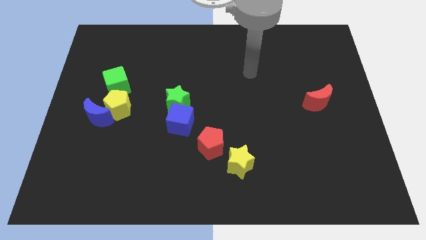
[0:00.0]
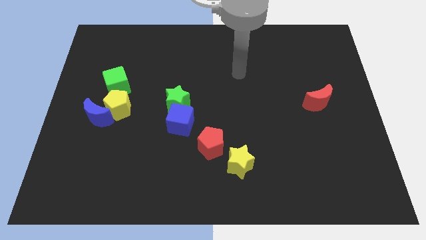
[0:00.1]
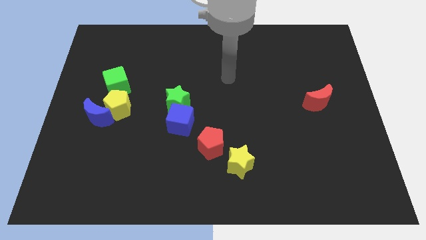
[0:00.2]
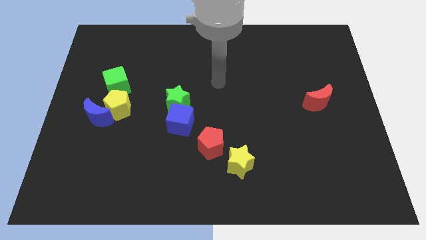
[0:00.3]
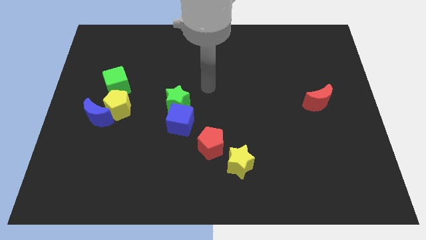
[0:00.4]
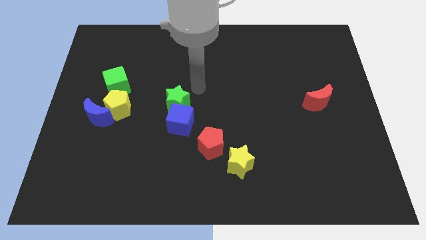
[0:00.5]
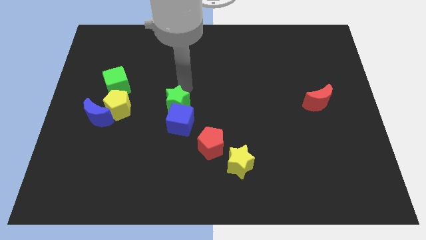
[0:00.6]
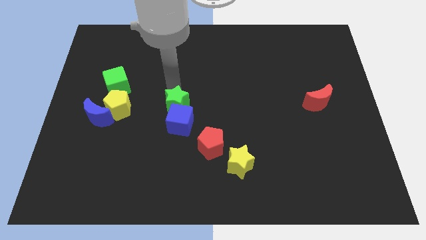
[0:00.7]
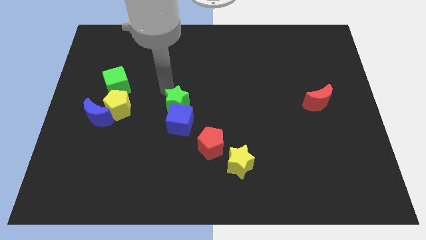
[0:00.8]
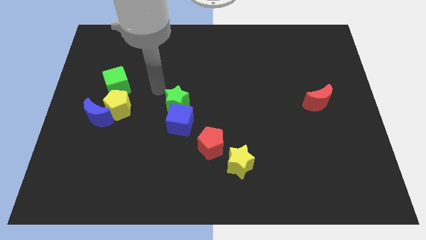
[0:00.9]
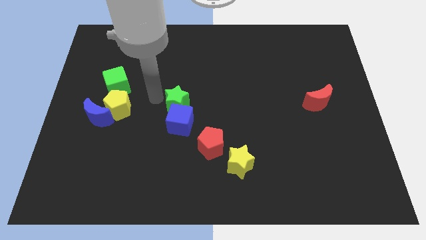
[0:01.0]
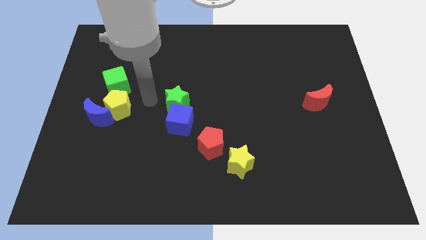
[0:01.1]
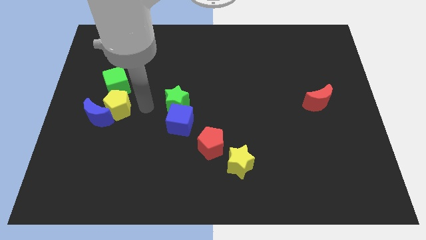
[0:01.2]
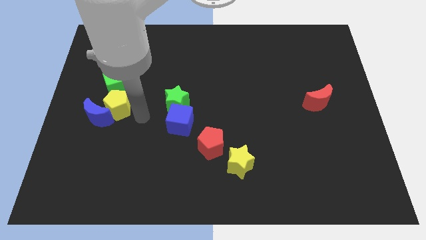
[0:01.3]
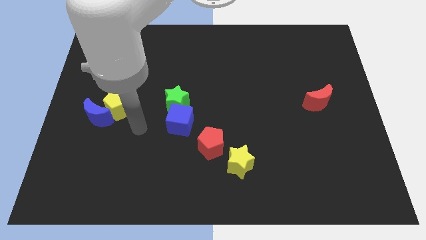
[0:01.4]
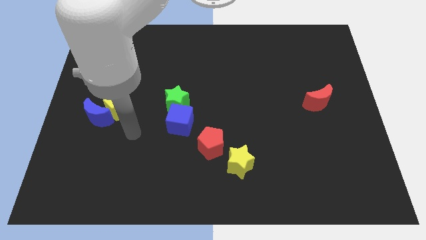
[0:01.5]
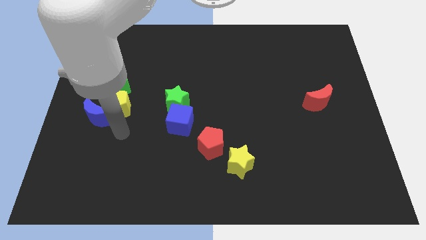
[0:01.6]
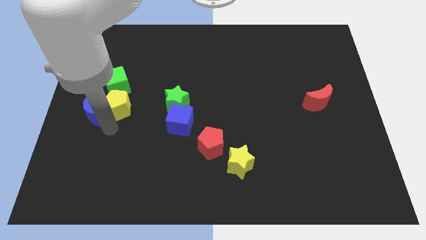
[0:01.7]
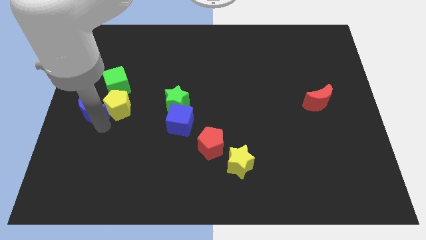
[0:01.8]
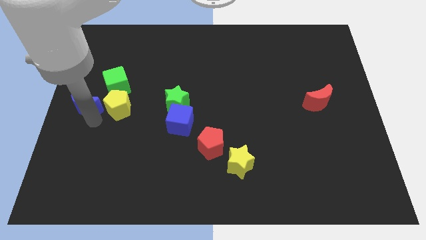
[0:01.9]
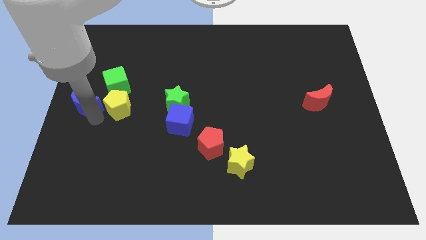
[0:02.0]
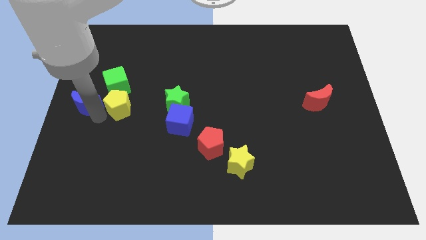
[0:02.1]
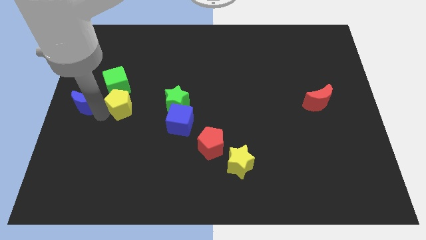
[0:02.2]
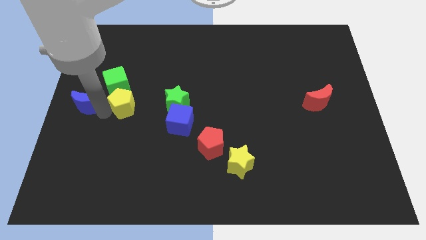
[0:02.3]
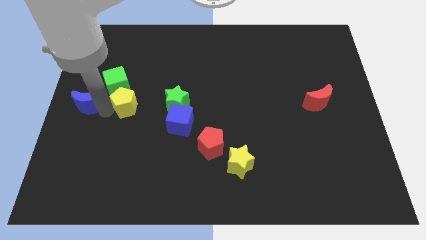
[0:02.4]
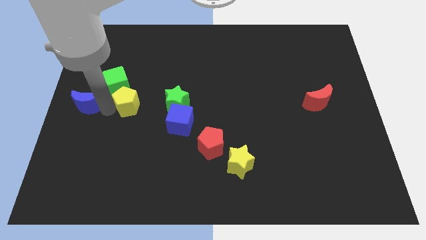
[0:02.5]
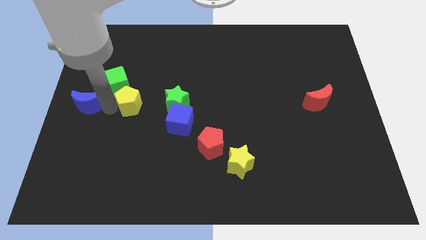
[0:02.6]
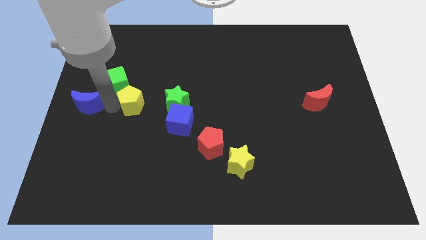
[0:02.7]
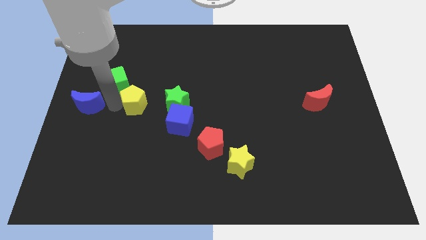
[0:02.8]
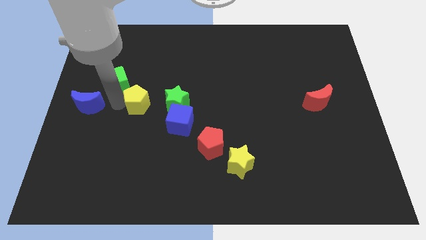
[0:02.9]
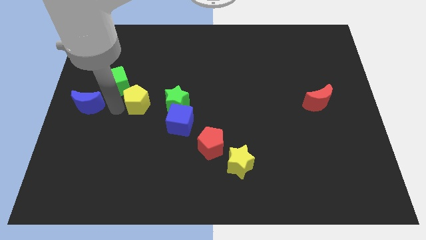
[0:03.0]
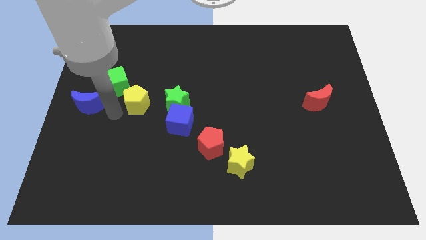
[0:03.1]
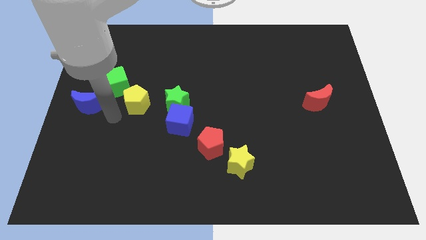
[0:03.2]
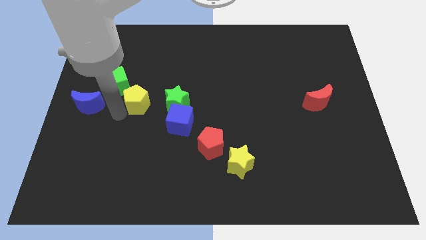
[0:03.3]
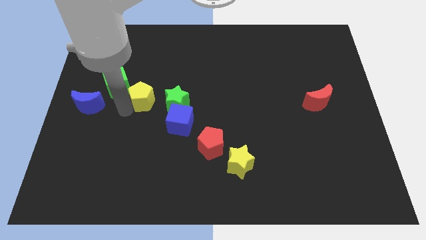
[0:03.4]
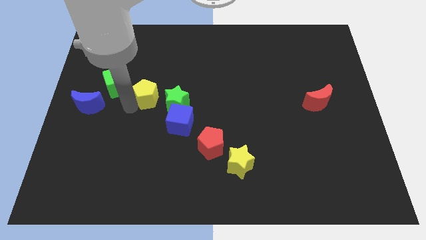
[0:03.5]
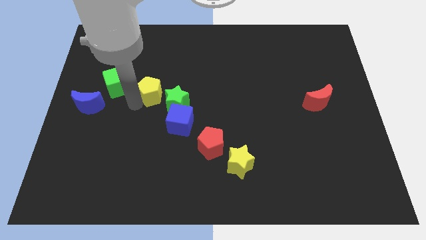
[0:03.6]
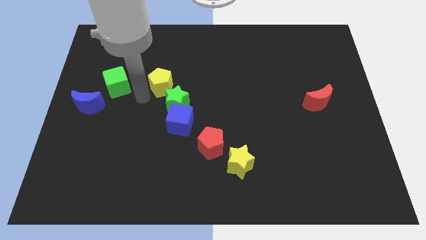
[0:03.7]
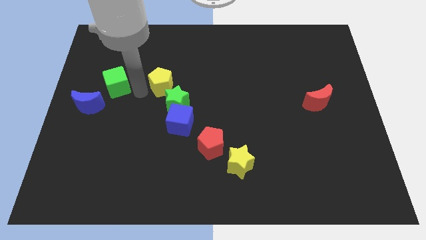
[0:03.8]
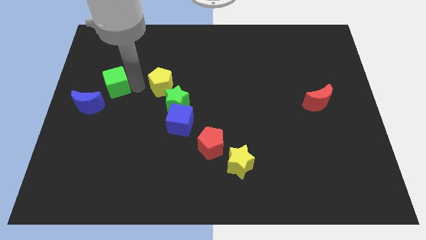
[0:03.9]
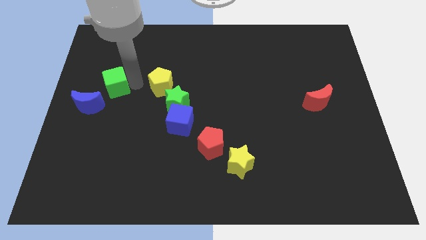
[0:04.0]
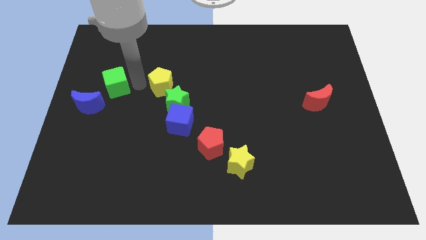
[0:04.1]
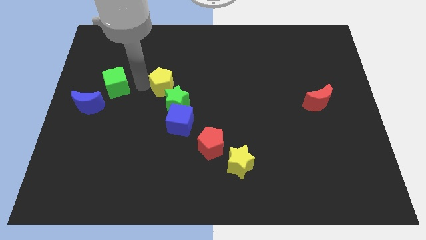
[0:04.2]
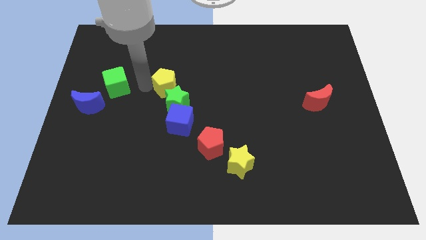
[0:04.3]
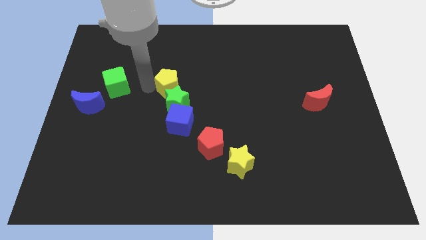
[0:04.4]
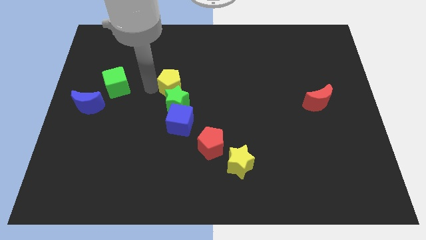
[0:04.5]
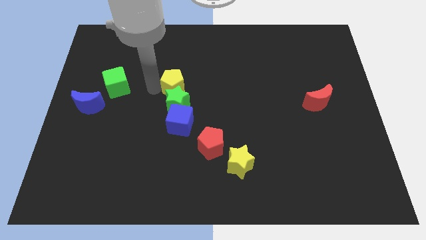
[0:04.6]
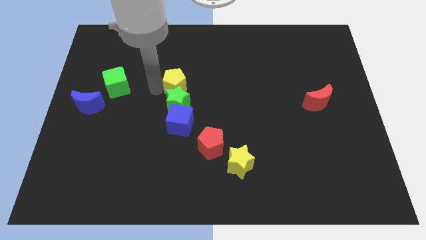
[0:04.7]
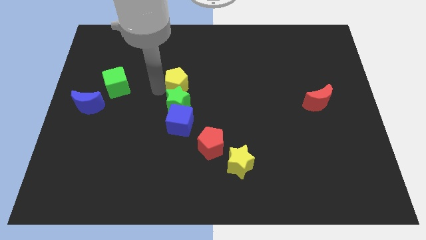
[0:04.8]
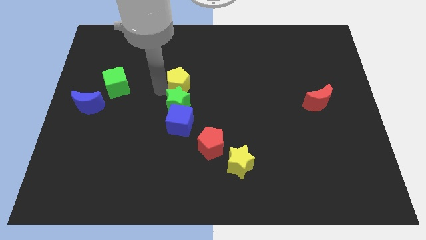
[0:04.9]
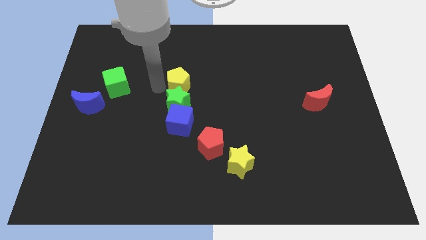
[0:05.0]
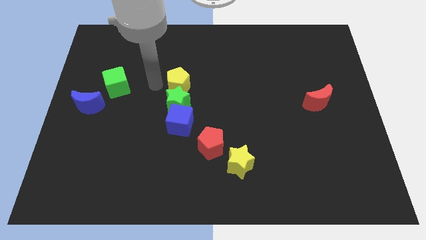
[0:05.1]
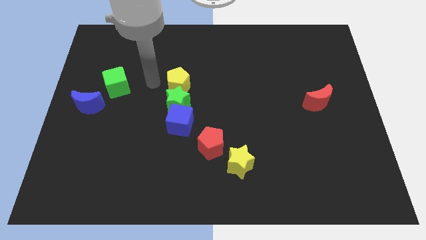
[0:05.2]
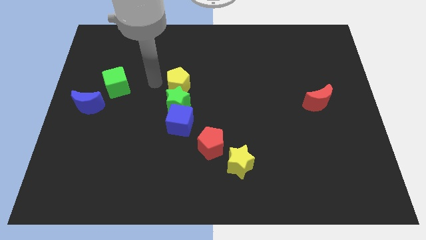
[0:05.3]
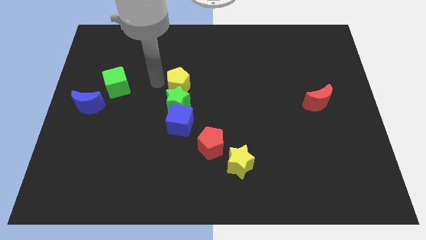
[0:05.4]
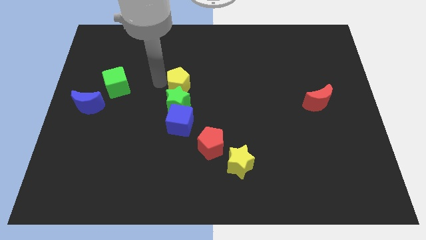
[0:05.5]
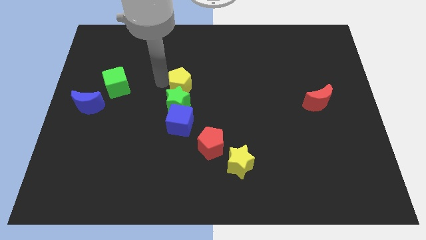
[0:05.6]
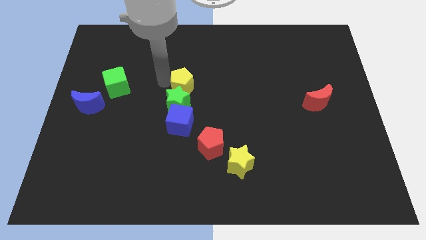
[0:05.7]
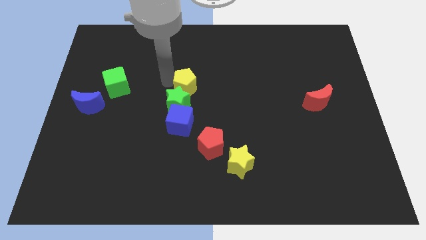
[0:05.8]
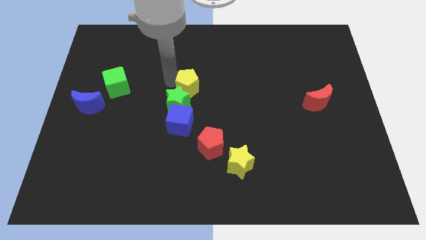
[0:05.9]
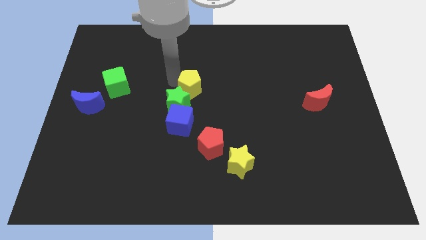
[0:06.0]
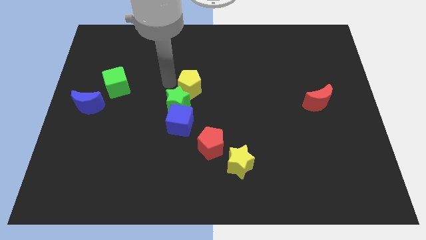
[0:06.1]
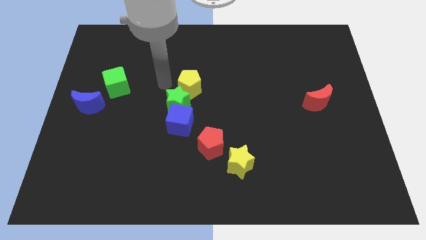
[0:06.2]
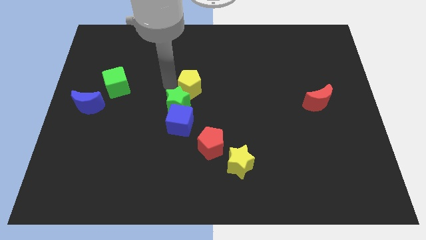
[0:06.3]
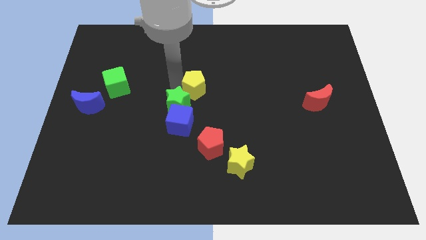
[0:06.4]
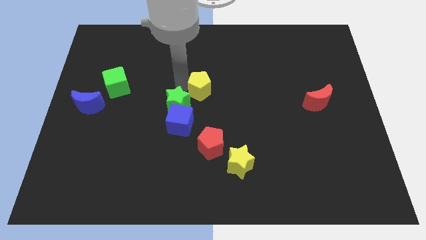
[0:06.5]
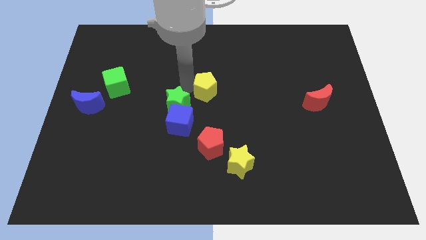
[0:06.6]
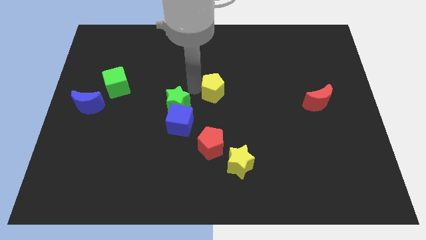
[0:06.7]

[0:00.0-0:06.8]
push the yellow pentagon to the right

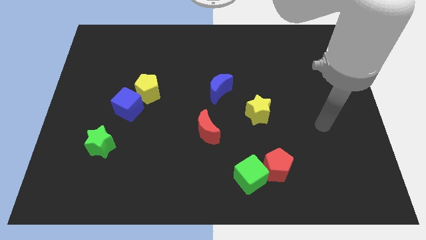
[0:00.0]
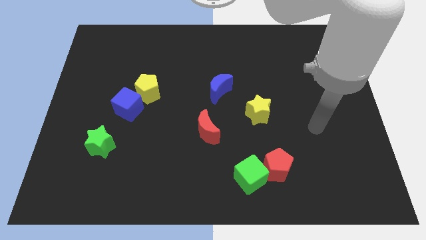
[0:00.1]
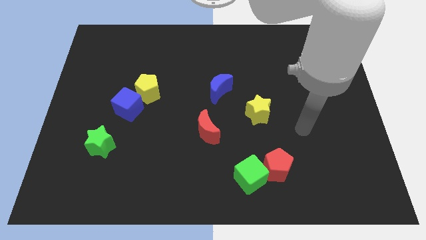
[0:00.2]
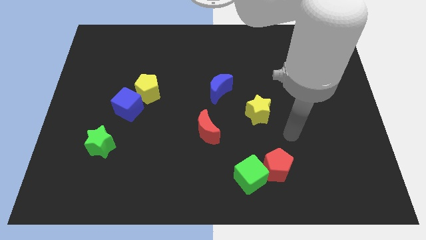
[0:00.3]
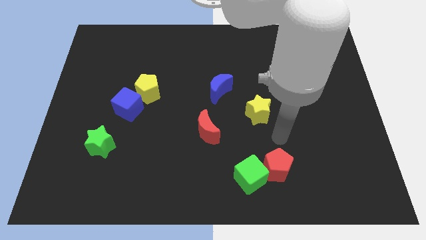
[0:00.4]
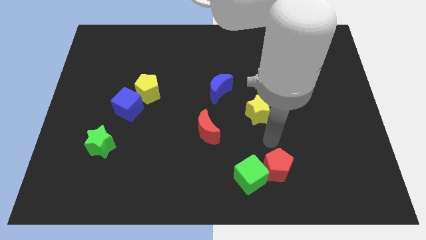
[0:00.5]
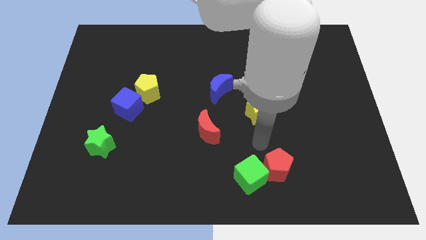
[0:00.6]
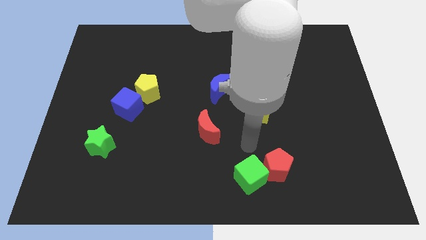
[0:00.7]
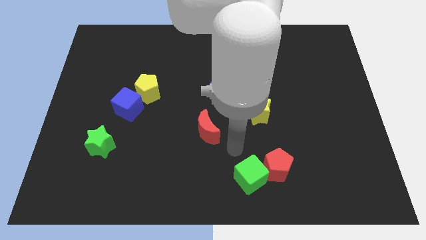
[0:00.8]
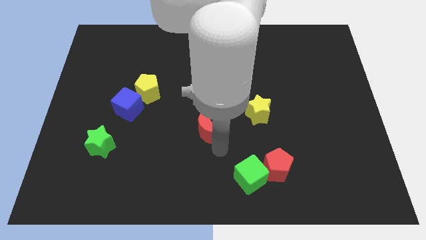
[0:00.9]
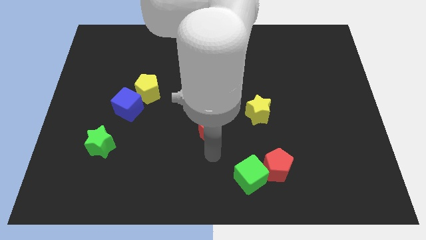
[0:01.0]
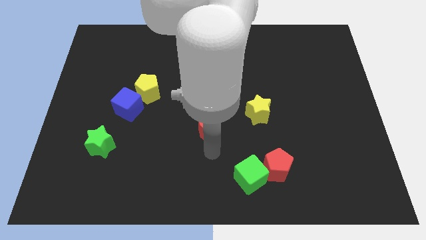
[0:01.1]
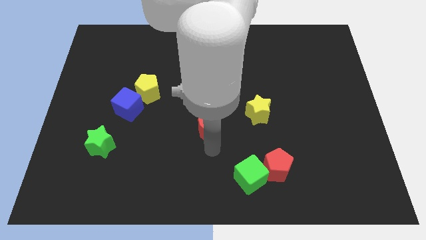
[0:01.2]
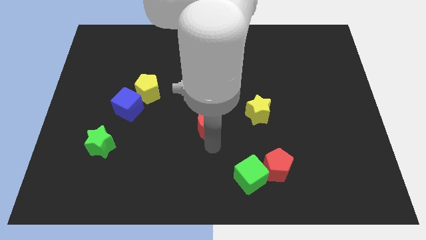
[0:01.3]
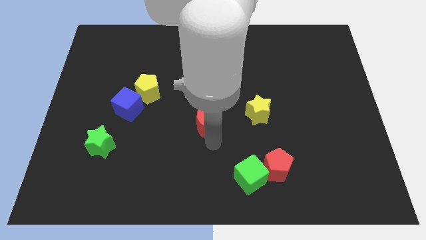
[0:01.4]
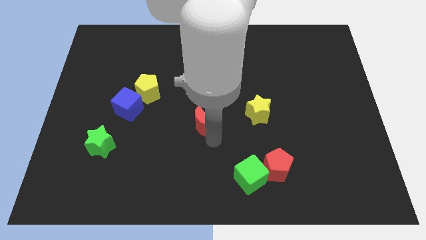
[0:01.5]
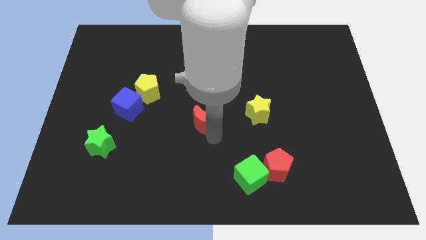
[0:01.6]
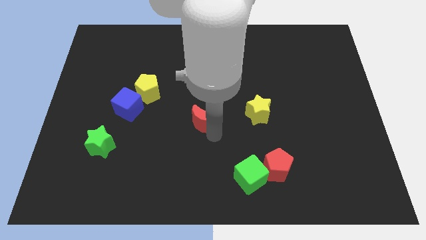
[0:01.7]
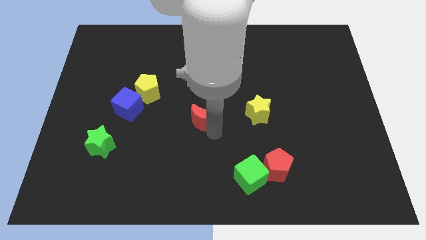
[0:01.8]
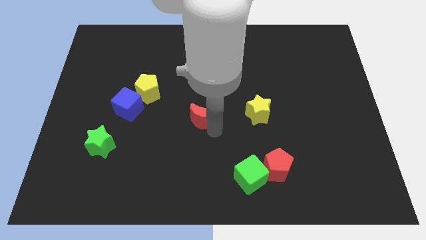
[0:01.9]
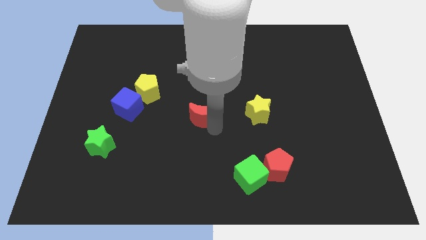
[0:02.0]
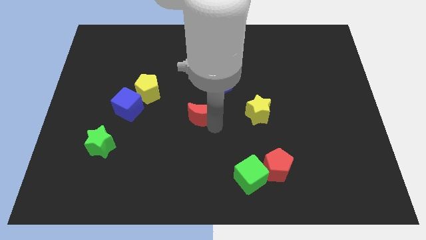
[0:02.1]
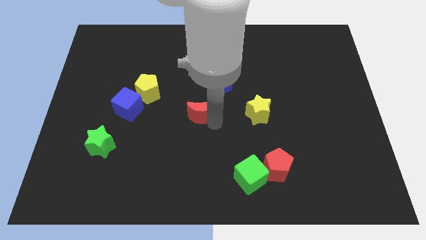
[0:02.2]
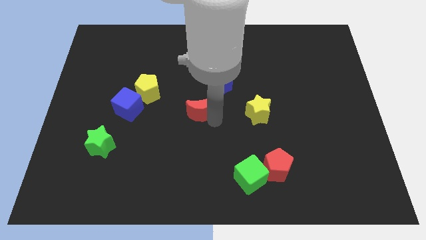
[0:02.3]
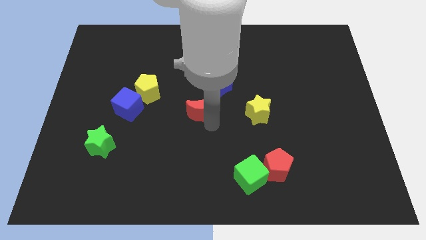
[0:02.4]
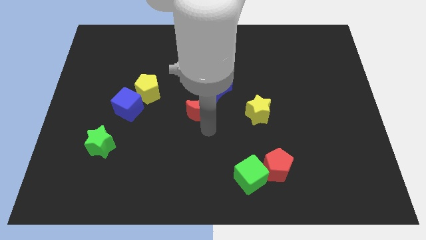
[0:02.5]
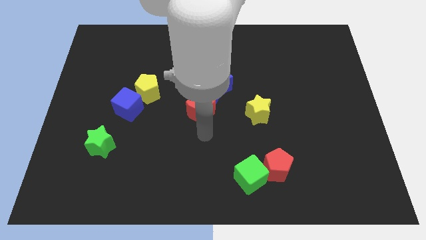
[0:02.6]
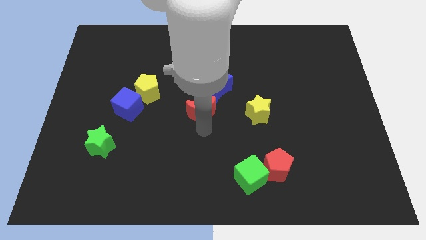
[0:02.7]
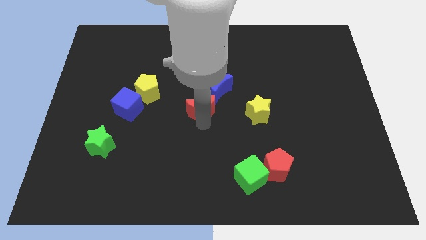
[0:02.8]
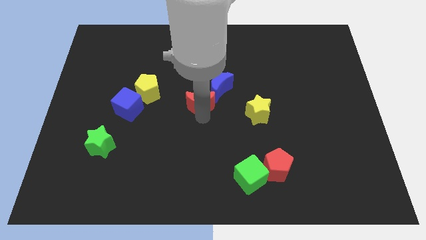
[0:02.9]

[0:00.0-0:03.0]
move the red moon upwards a little bit
